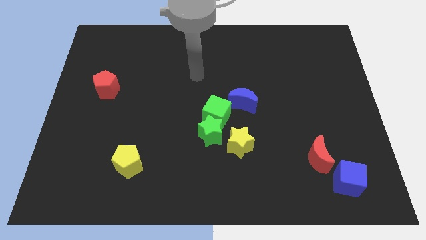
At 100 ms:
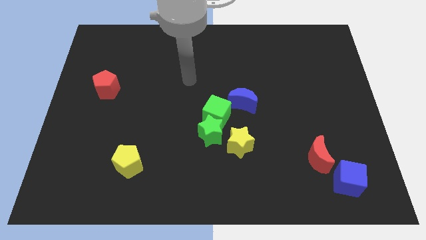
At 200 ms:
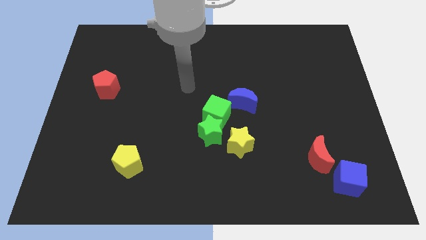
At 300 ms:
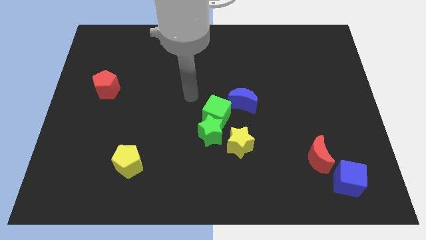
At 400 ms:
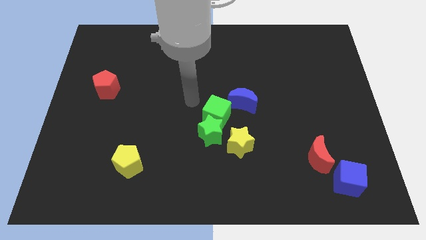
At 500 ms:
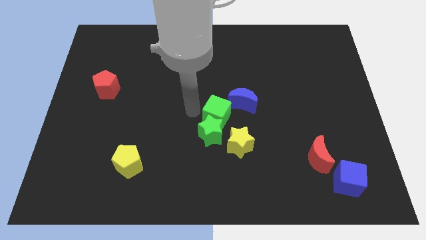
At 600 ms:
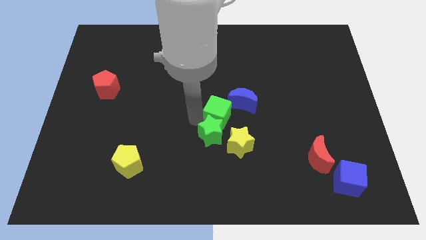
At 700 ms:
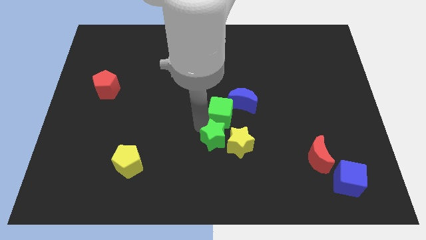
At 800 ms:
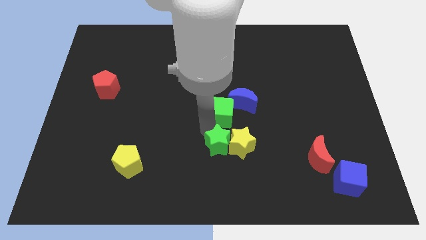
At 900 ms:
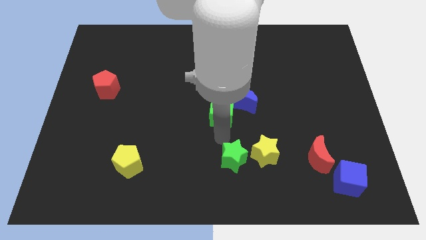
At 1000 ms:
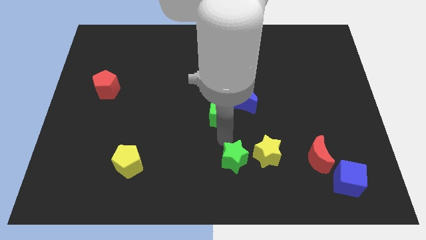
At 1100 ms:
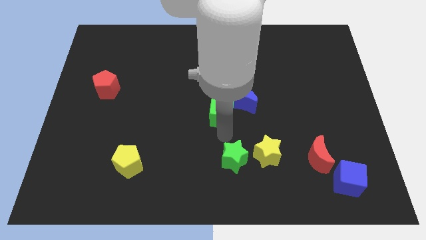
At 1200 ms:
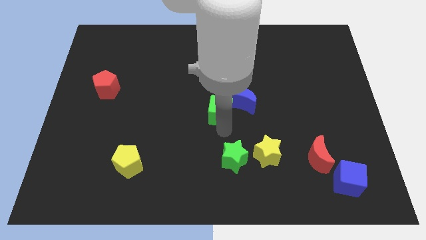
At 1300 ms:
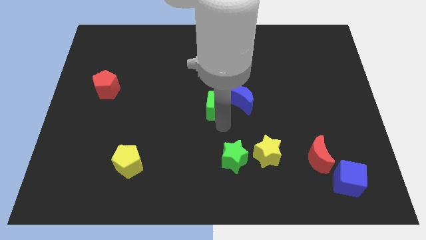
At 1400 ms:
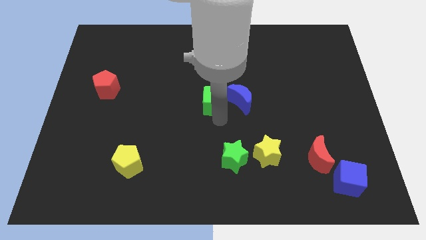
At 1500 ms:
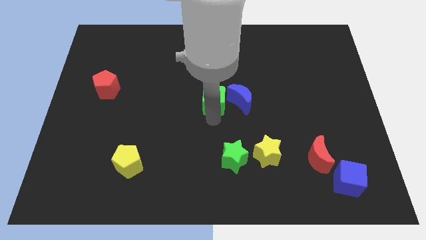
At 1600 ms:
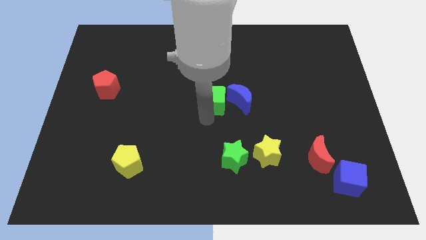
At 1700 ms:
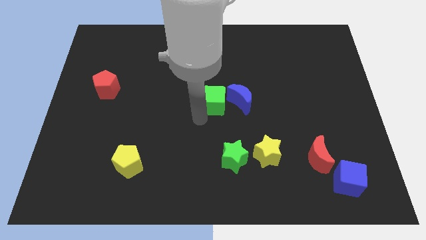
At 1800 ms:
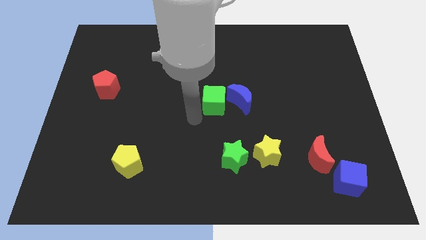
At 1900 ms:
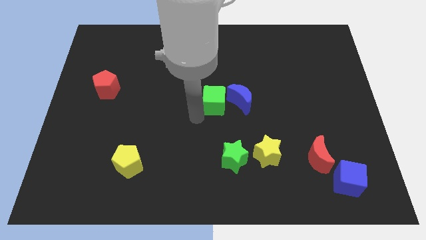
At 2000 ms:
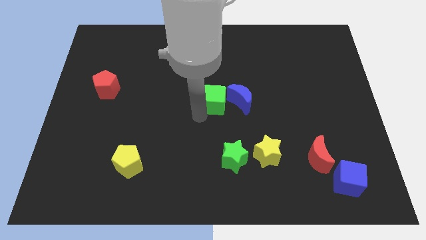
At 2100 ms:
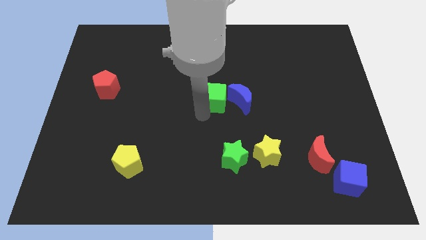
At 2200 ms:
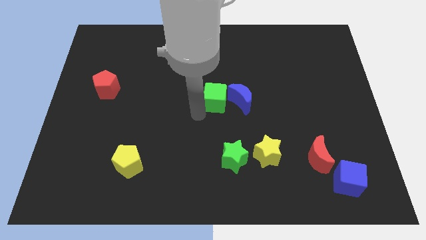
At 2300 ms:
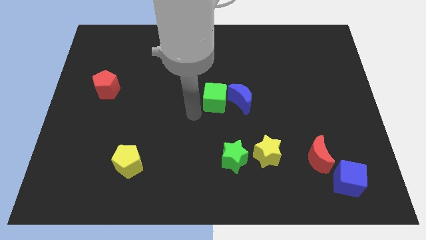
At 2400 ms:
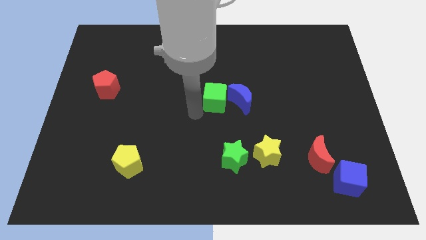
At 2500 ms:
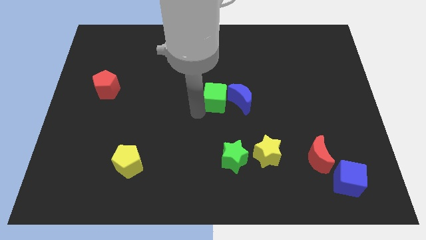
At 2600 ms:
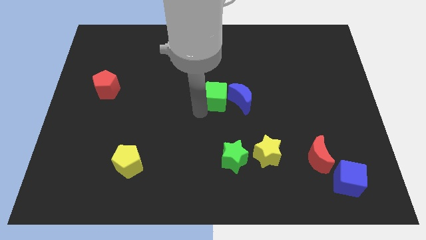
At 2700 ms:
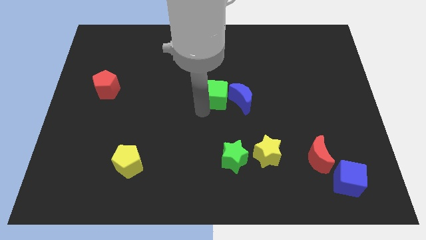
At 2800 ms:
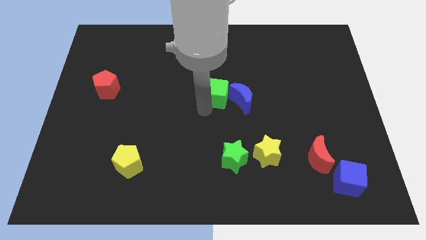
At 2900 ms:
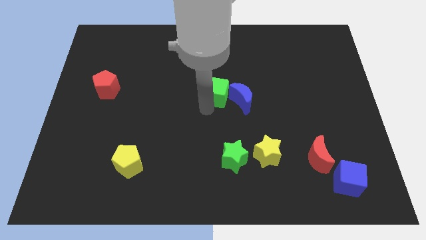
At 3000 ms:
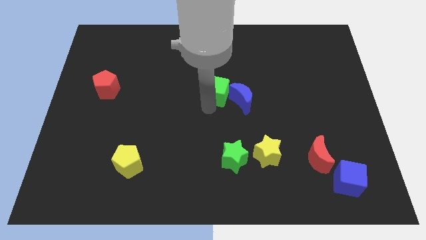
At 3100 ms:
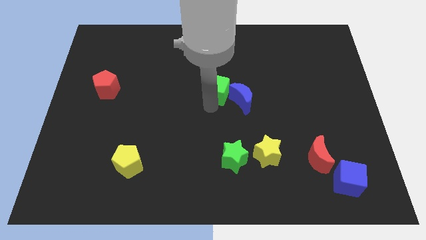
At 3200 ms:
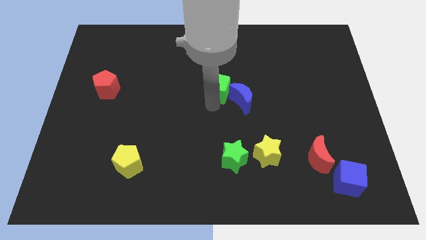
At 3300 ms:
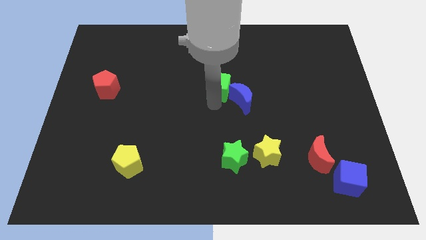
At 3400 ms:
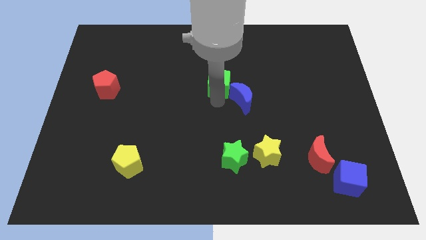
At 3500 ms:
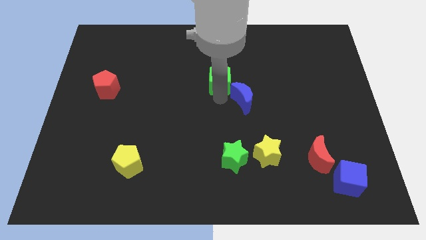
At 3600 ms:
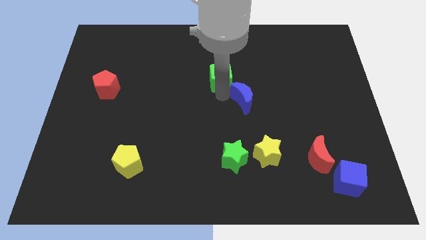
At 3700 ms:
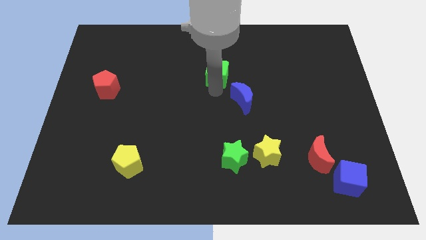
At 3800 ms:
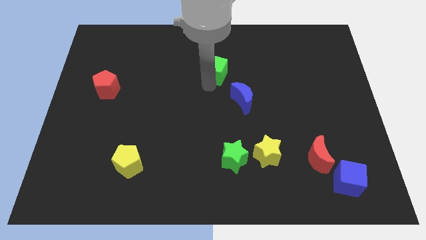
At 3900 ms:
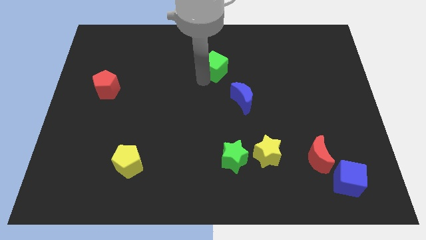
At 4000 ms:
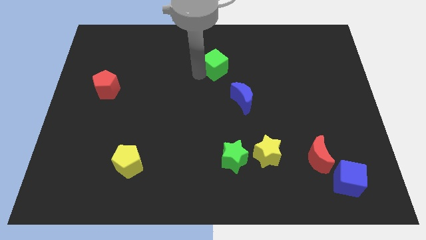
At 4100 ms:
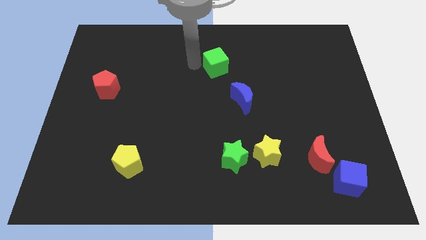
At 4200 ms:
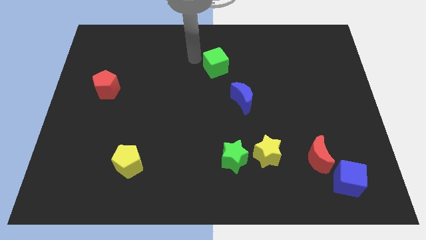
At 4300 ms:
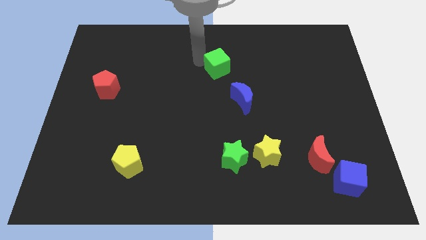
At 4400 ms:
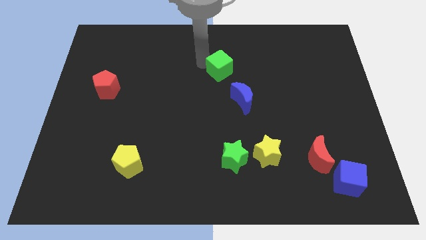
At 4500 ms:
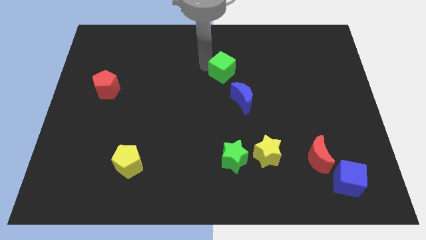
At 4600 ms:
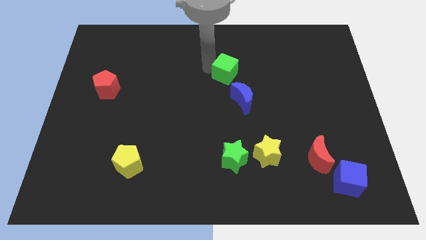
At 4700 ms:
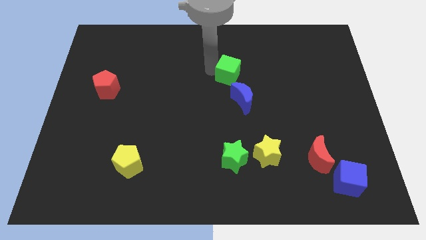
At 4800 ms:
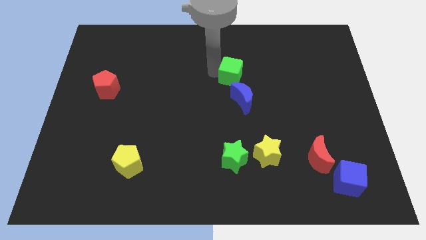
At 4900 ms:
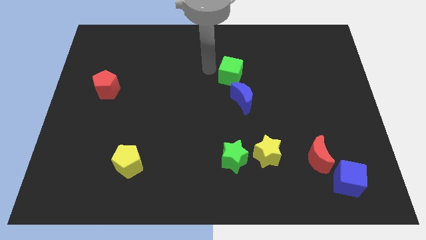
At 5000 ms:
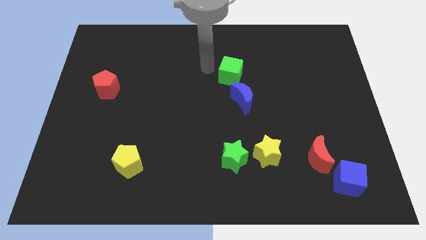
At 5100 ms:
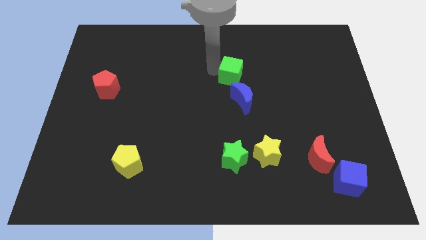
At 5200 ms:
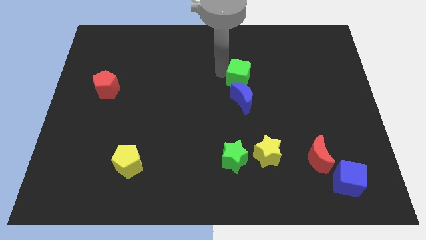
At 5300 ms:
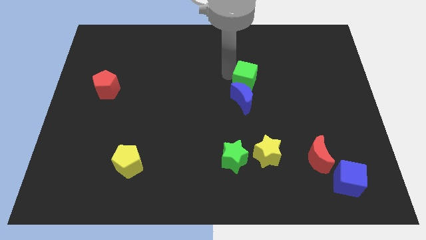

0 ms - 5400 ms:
slide the green cube to the top right of the blue moon

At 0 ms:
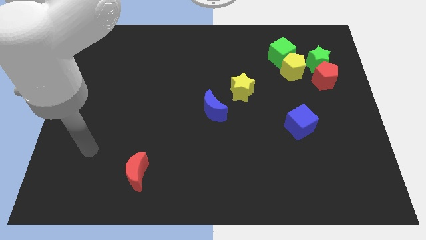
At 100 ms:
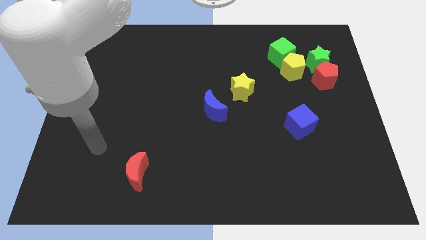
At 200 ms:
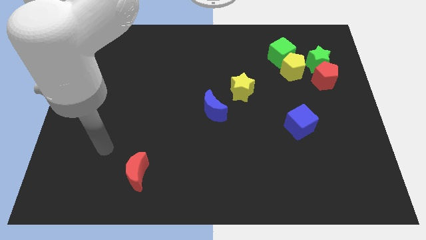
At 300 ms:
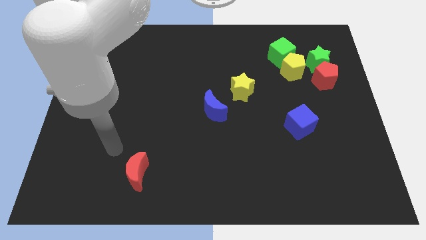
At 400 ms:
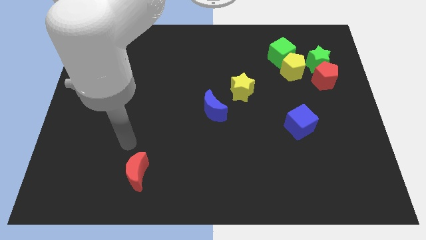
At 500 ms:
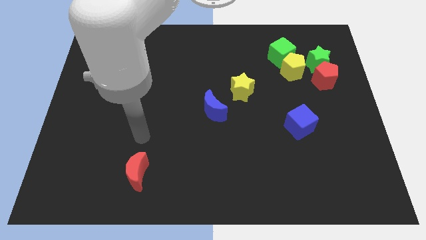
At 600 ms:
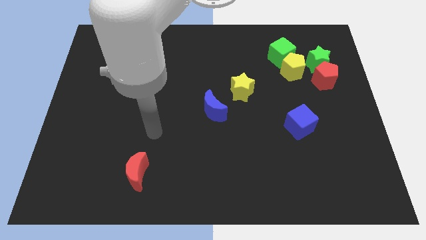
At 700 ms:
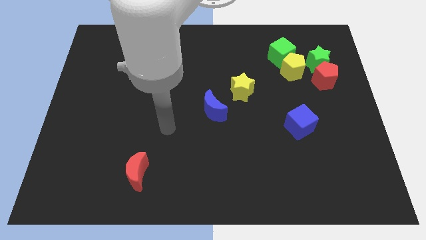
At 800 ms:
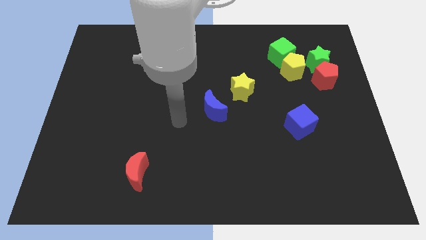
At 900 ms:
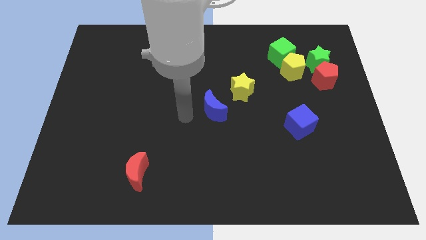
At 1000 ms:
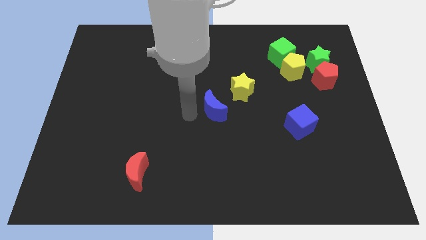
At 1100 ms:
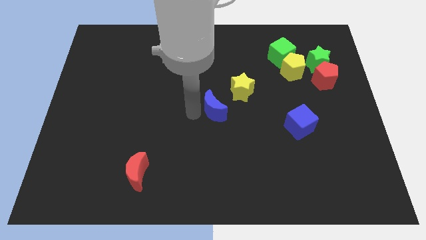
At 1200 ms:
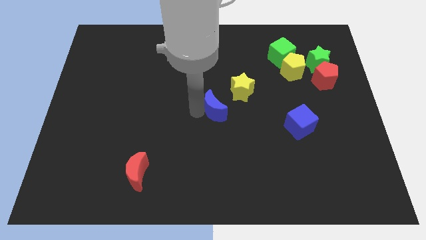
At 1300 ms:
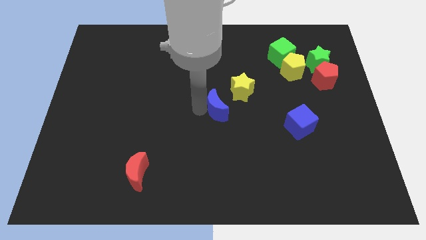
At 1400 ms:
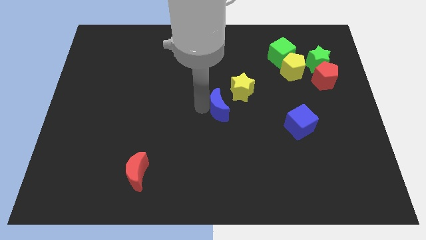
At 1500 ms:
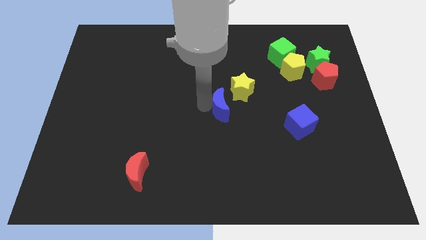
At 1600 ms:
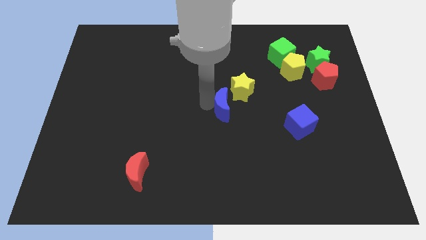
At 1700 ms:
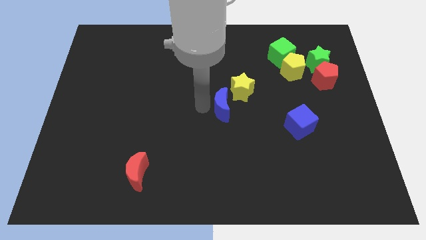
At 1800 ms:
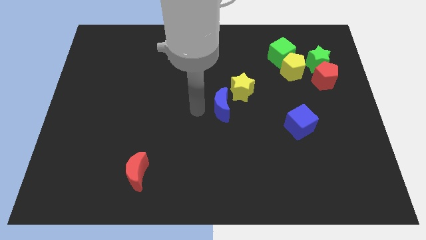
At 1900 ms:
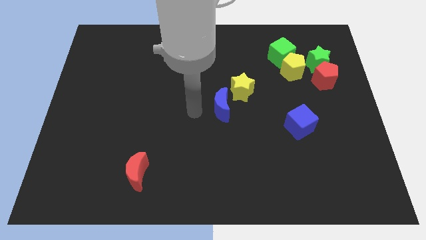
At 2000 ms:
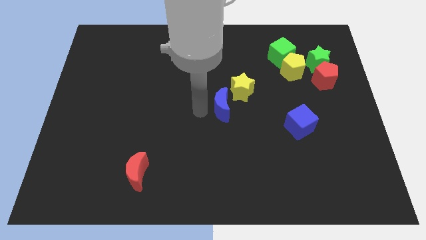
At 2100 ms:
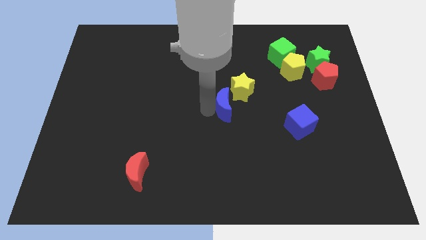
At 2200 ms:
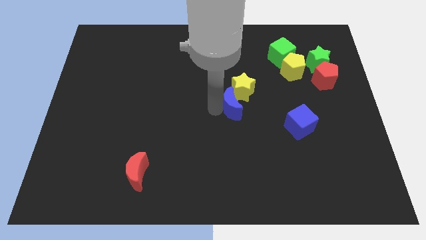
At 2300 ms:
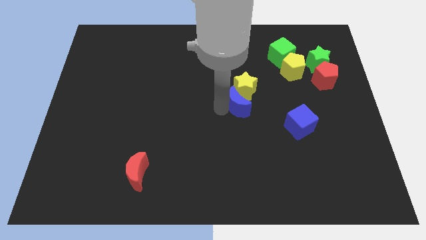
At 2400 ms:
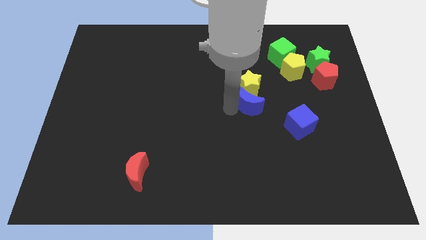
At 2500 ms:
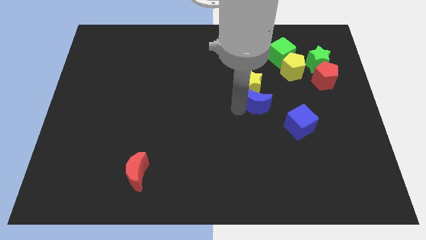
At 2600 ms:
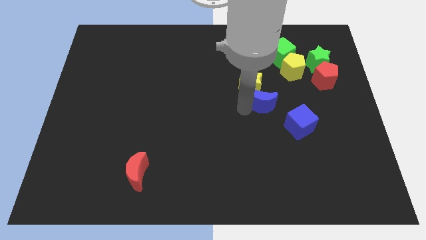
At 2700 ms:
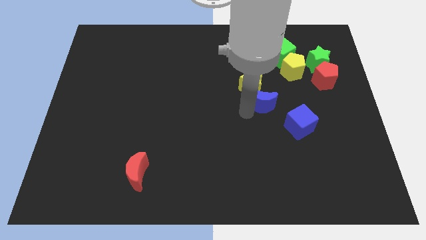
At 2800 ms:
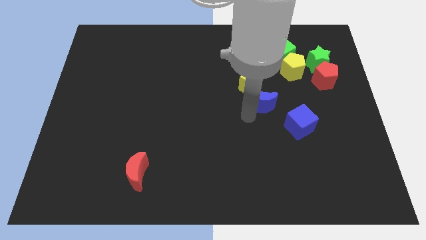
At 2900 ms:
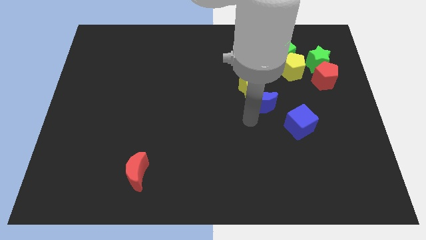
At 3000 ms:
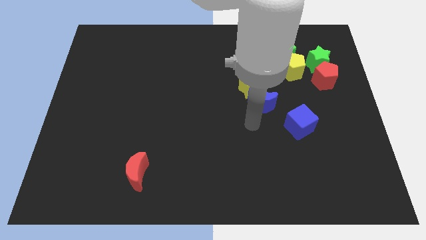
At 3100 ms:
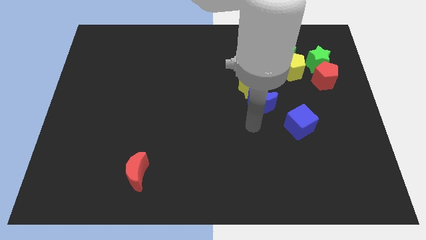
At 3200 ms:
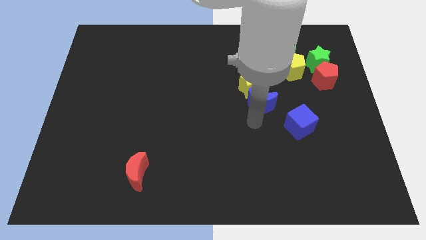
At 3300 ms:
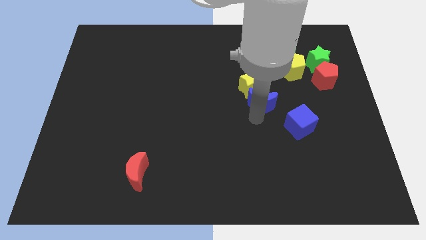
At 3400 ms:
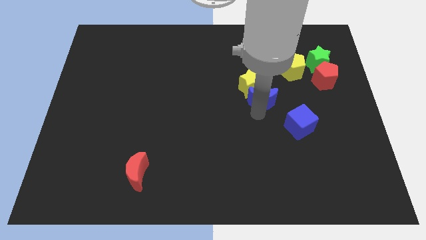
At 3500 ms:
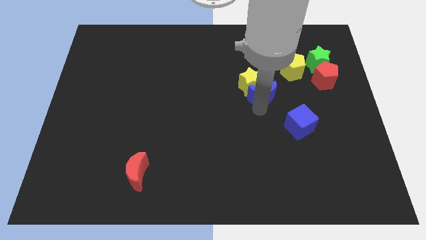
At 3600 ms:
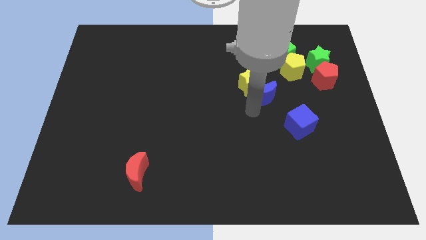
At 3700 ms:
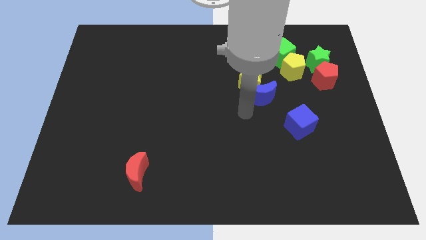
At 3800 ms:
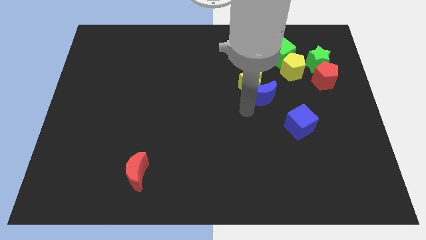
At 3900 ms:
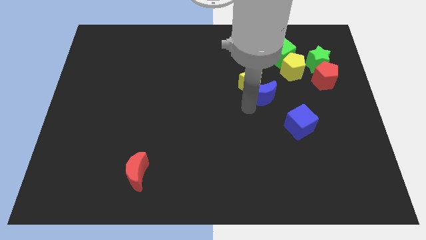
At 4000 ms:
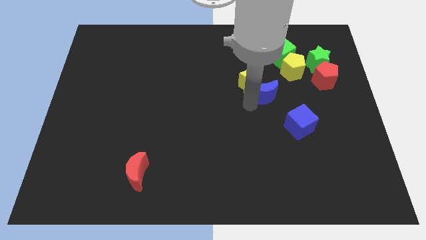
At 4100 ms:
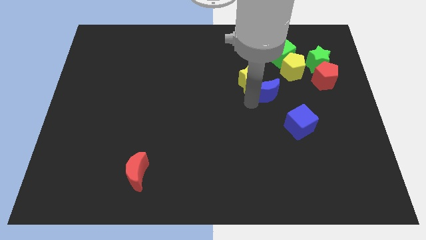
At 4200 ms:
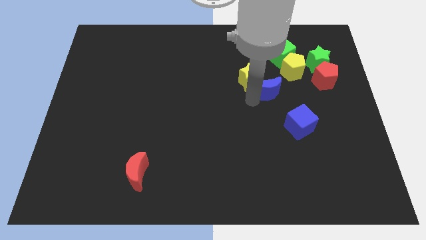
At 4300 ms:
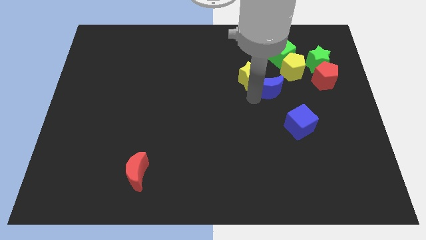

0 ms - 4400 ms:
move the blue moon just left of the red pentagon
